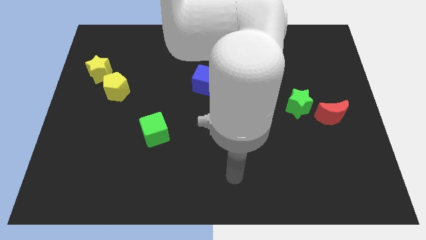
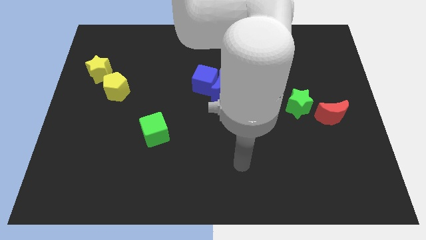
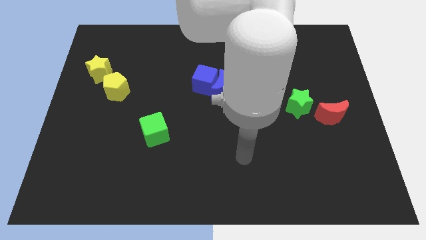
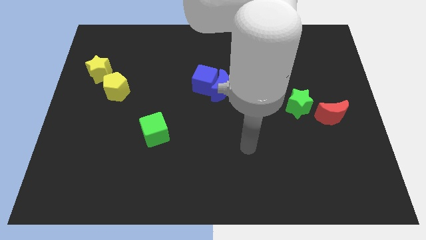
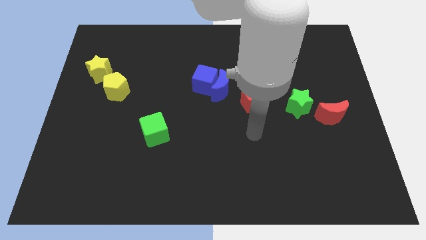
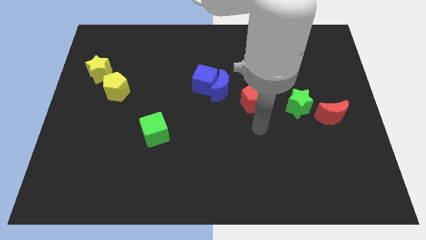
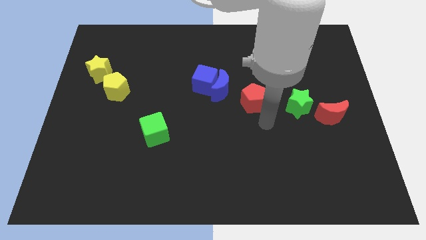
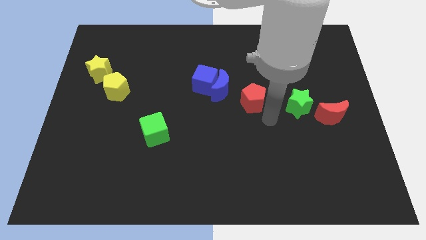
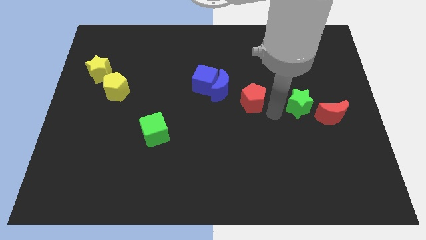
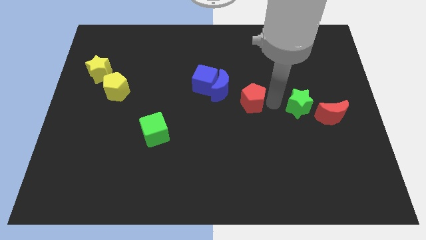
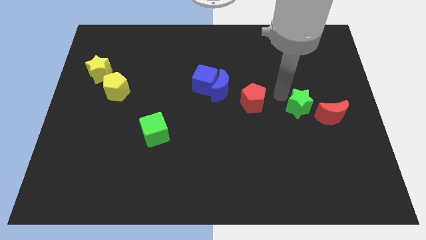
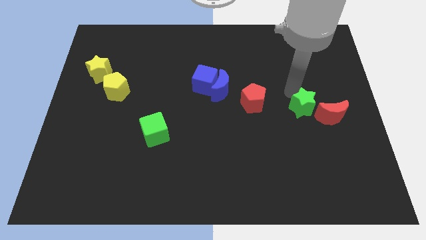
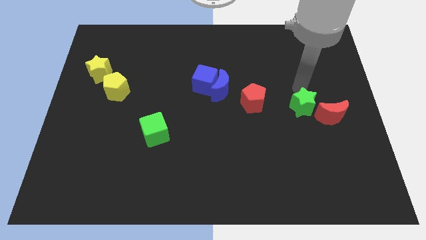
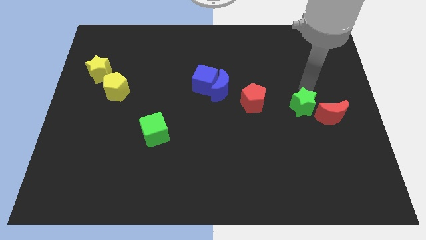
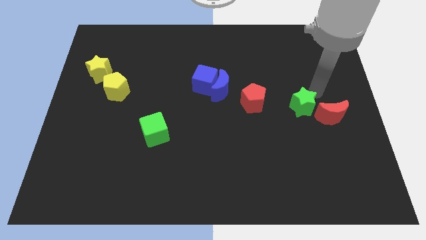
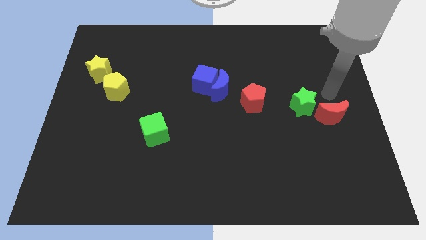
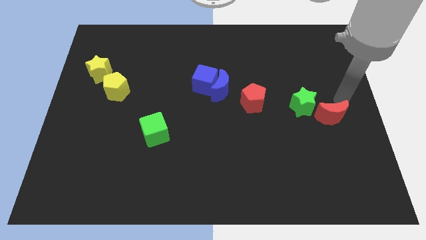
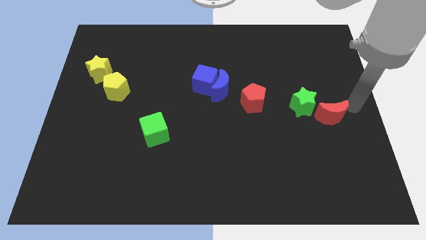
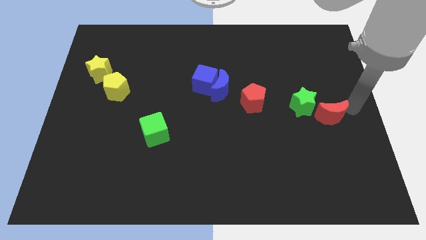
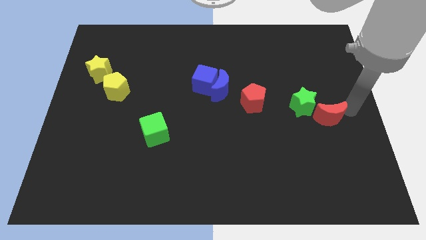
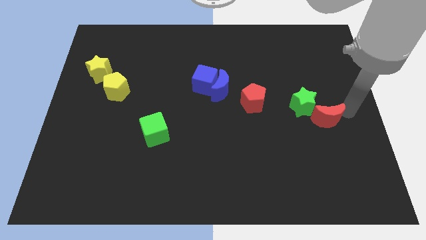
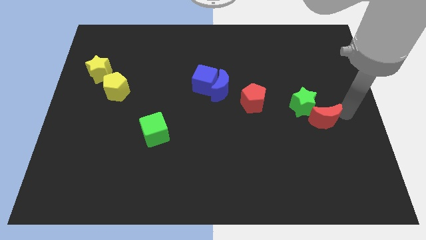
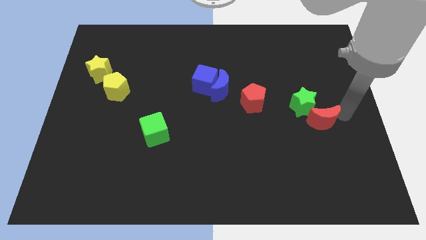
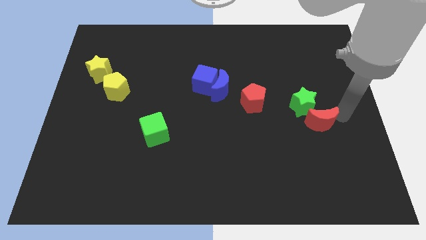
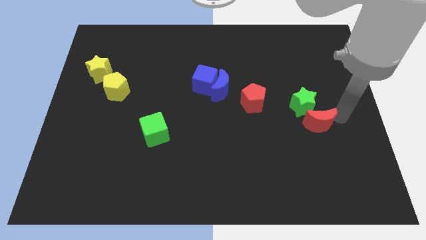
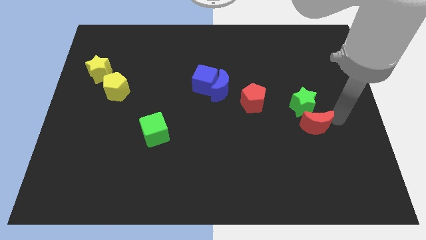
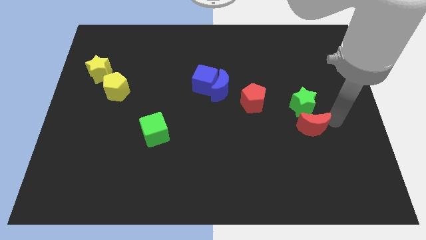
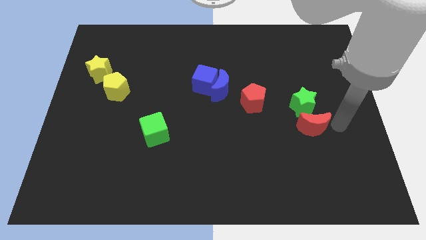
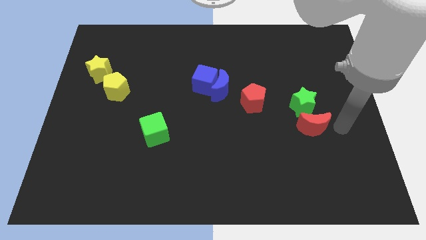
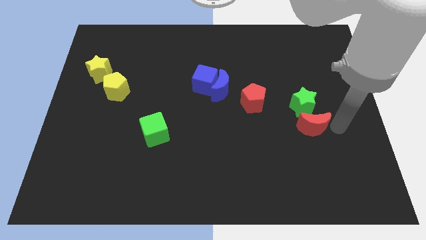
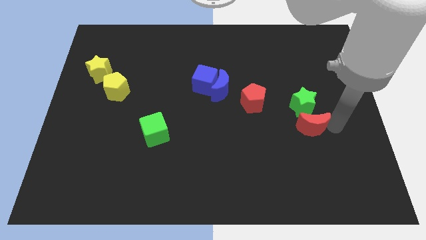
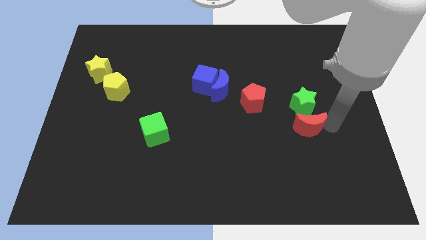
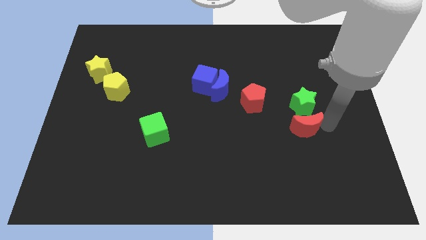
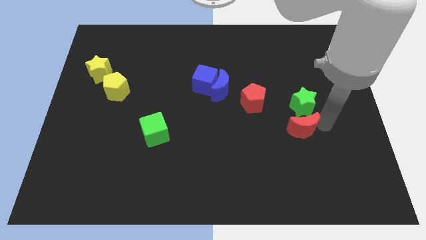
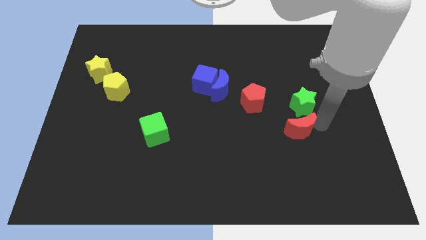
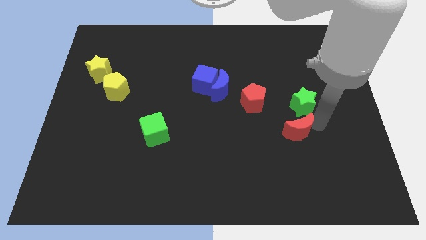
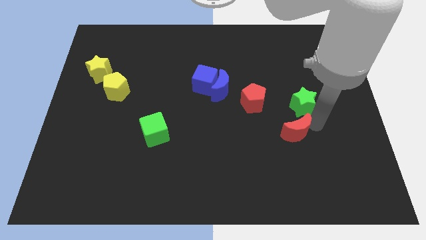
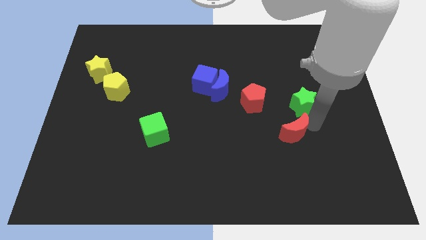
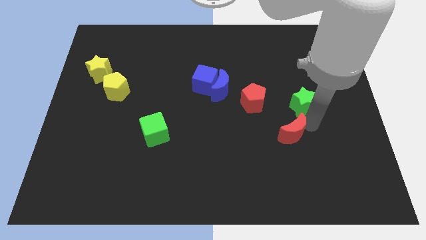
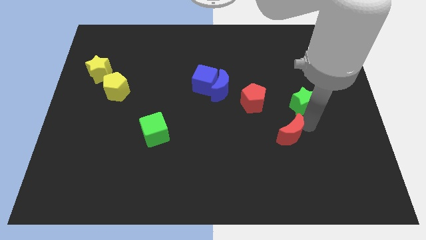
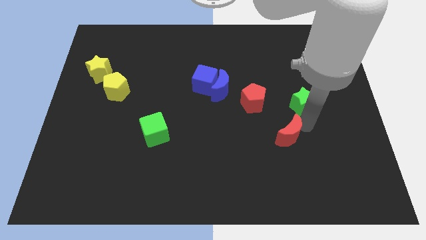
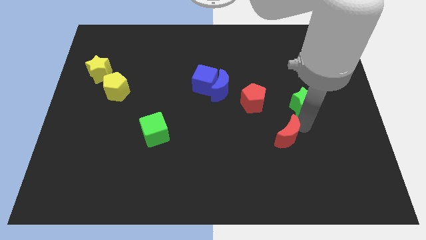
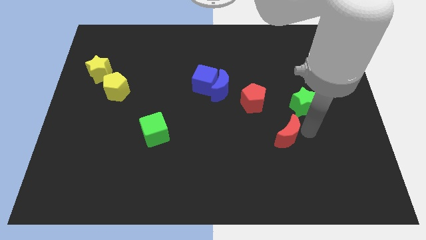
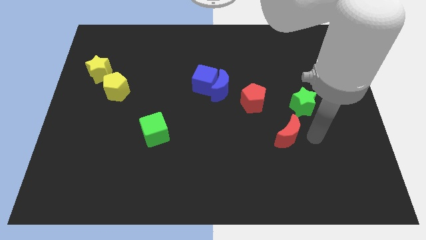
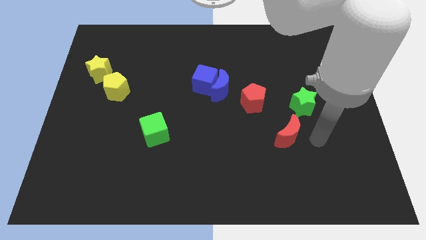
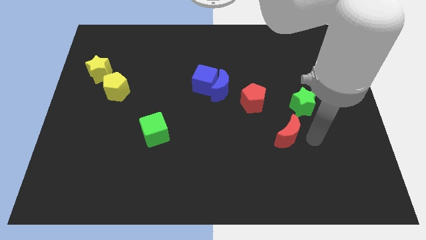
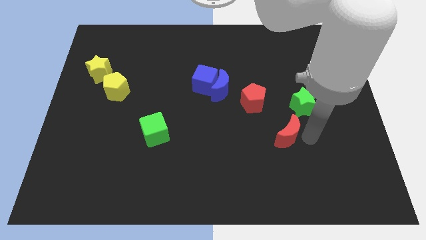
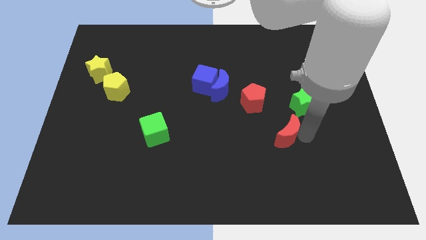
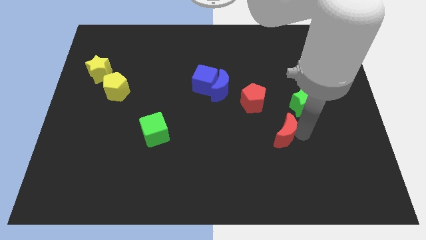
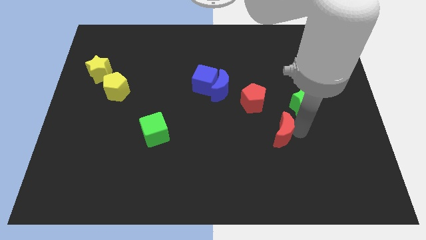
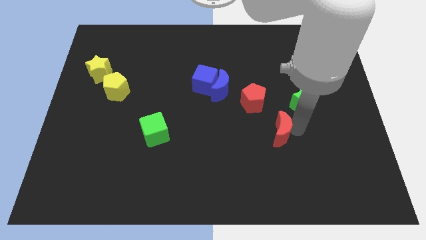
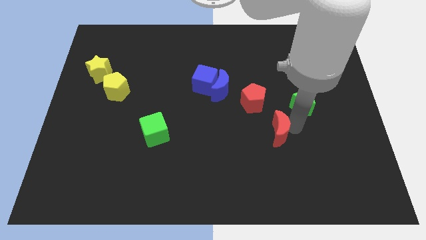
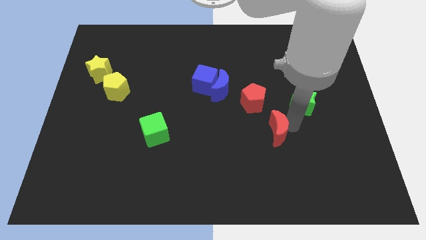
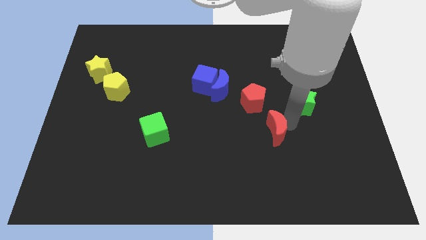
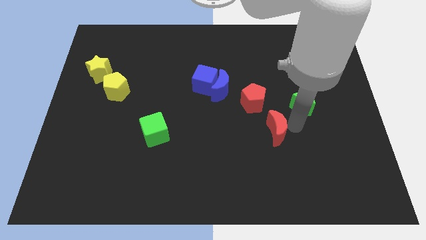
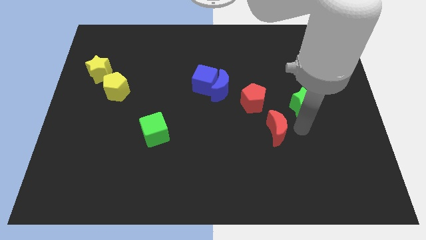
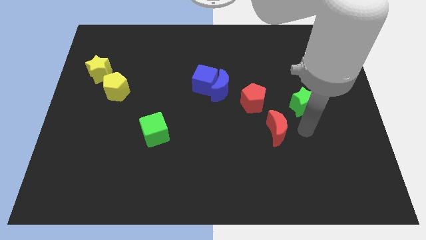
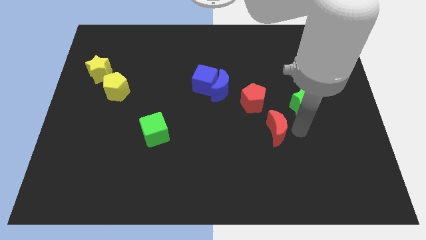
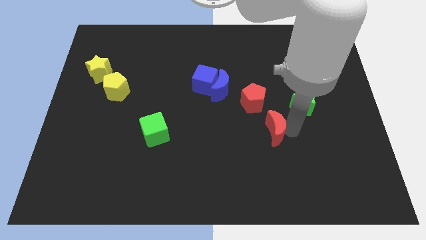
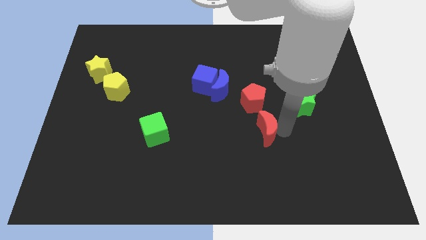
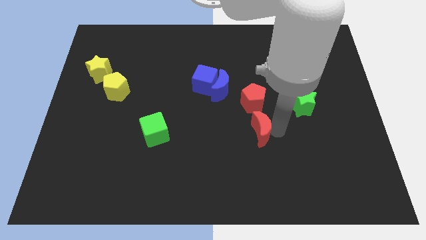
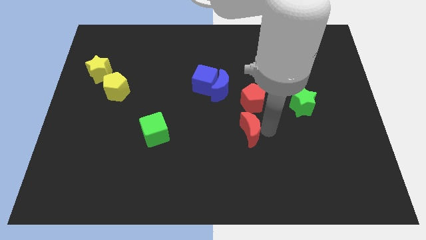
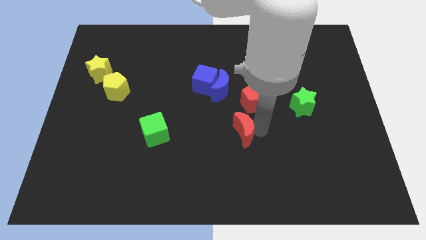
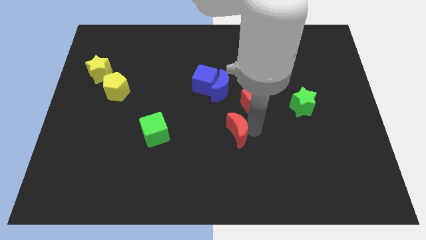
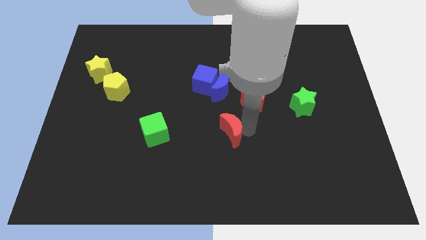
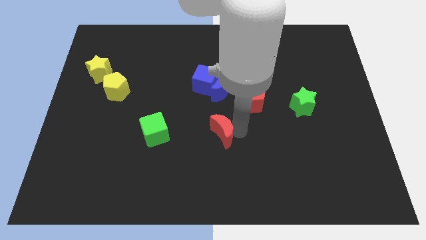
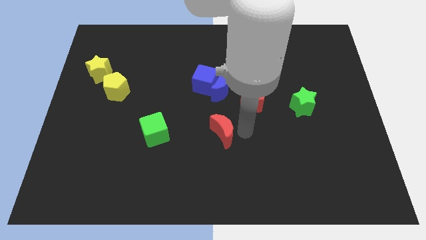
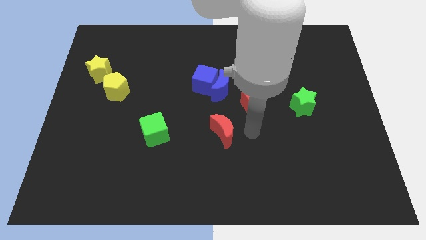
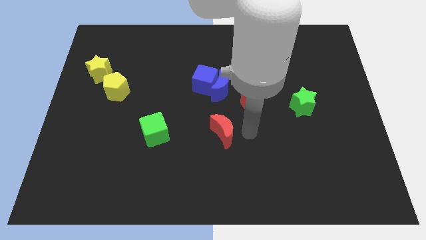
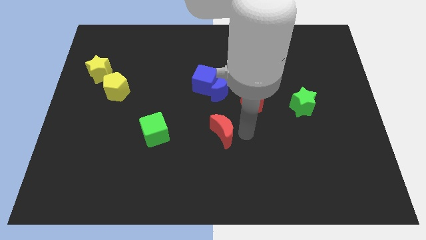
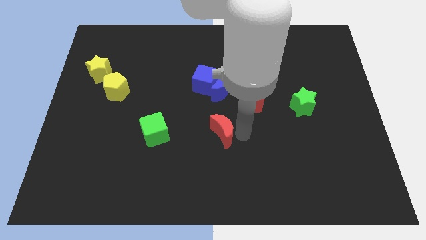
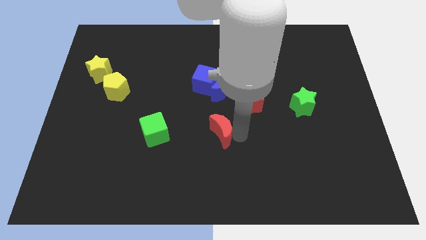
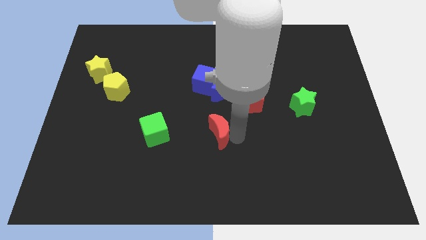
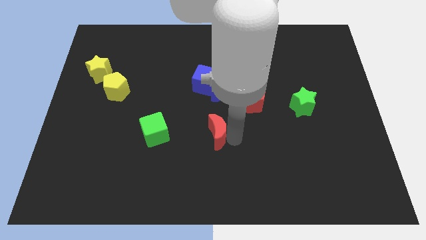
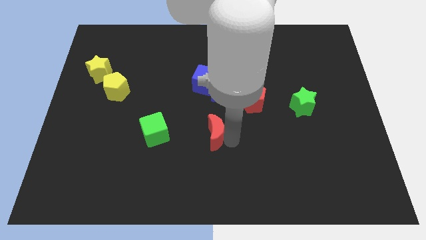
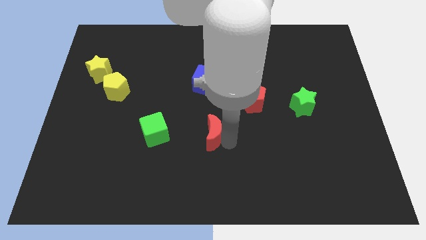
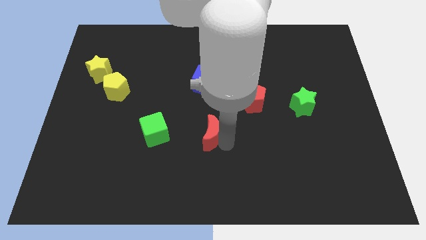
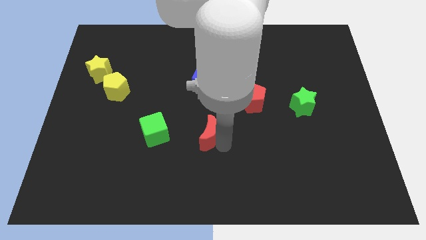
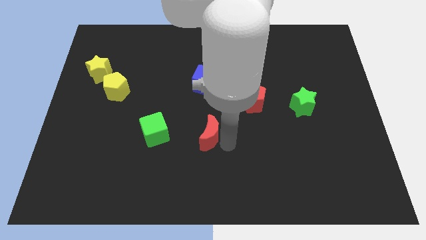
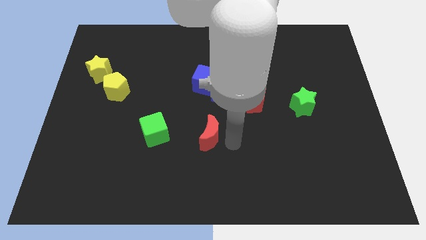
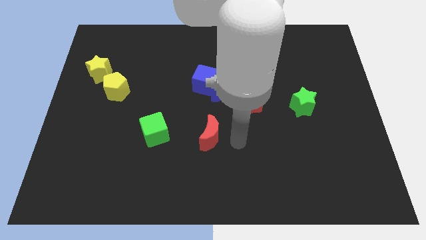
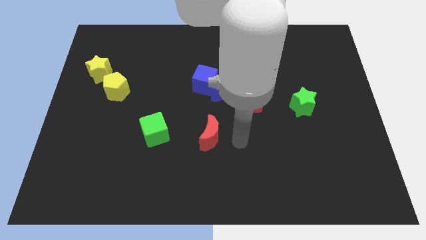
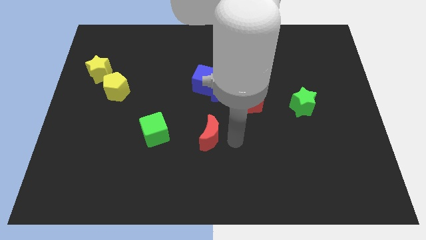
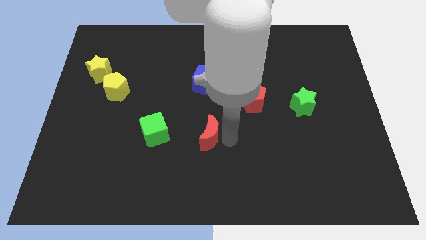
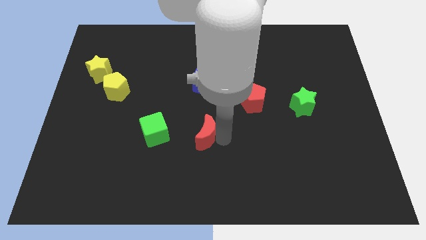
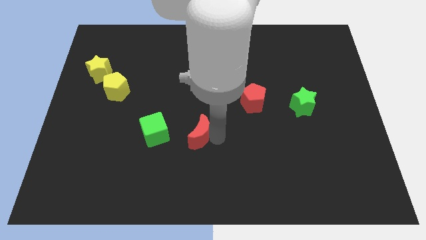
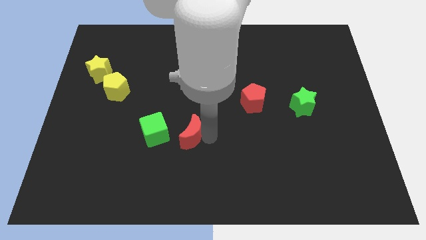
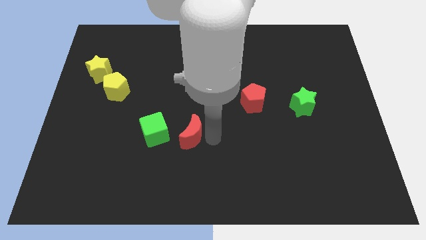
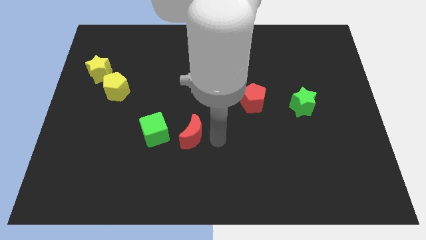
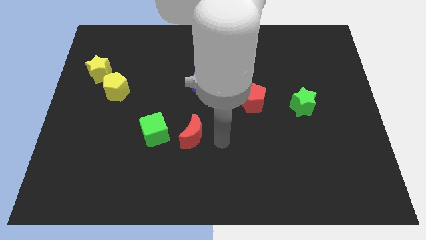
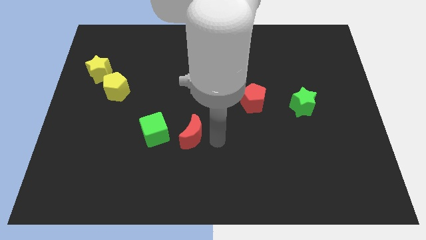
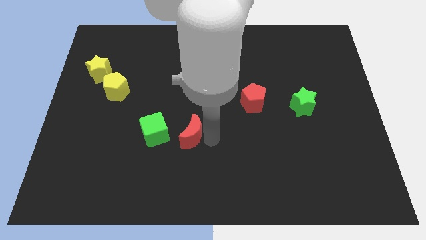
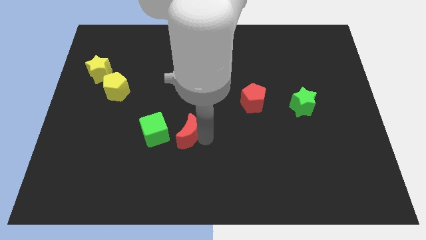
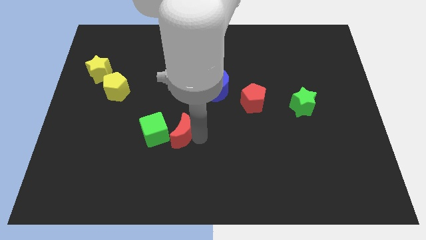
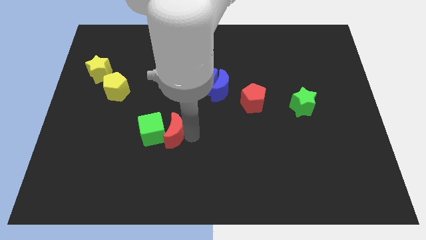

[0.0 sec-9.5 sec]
push the red moon to the green cube
